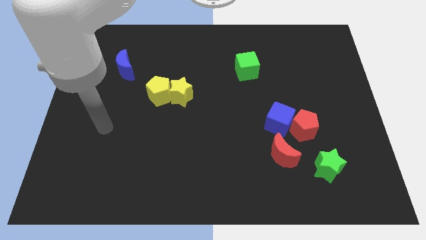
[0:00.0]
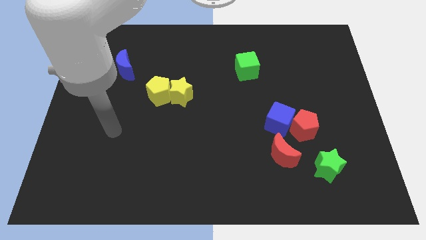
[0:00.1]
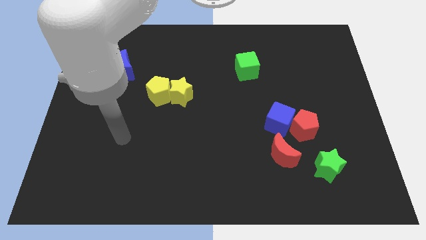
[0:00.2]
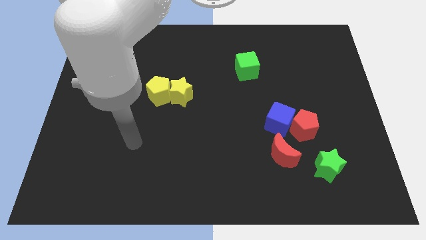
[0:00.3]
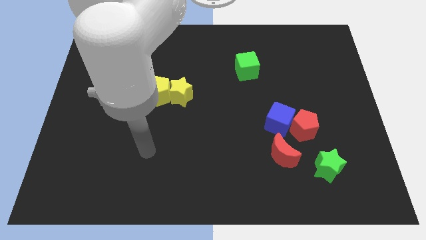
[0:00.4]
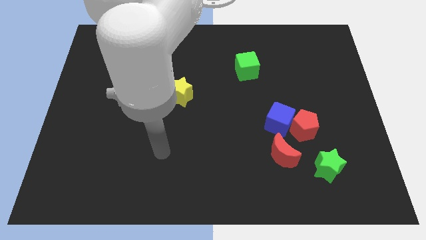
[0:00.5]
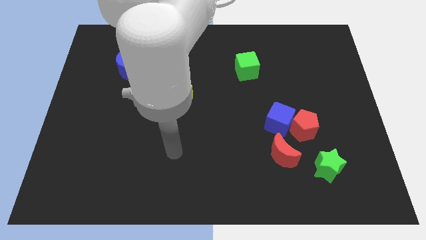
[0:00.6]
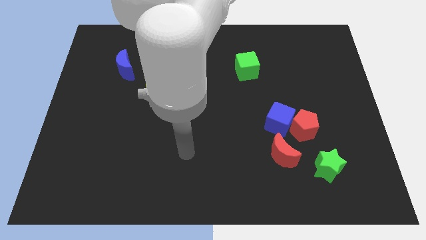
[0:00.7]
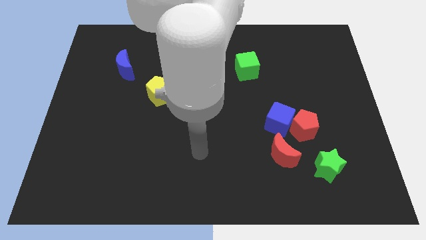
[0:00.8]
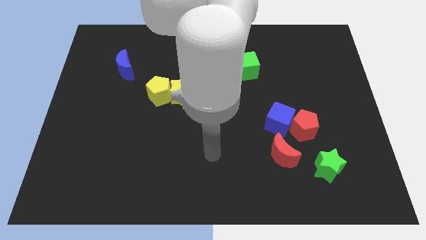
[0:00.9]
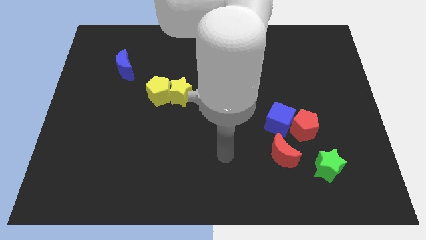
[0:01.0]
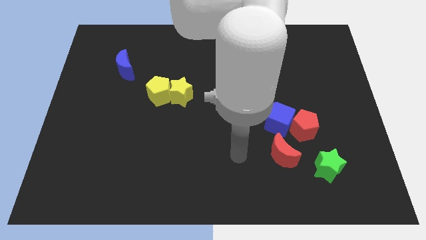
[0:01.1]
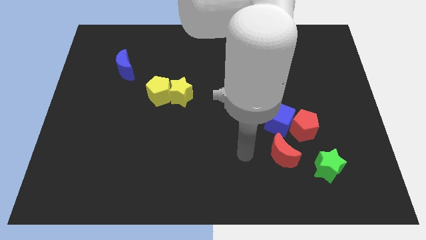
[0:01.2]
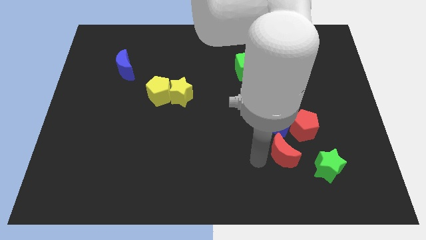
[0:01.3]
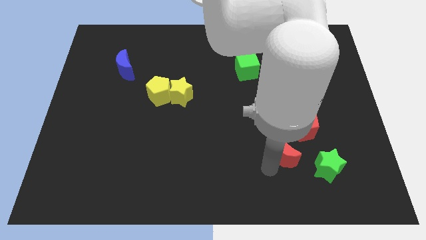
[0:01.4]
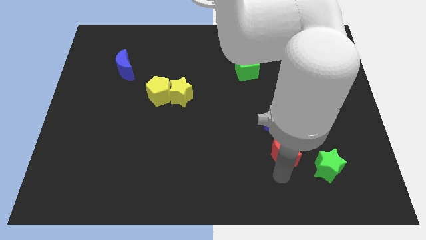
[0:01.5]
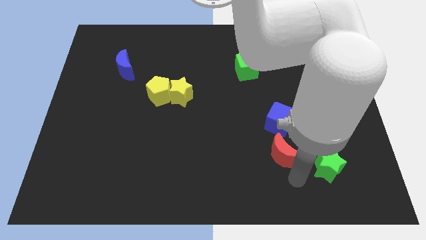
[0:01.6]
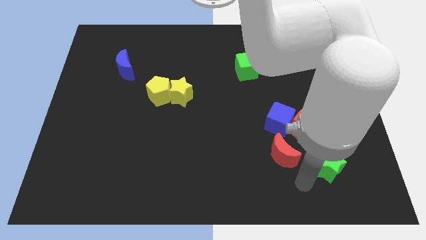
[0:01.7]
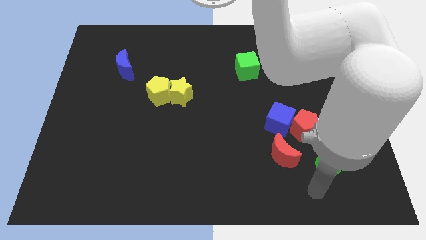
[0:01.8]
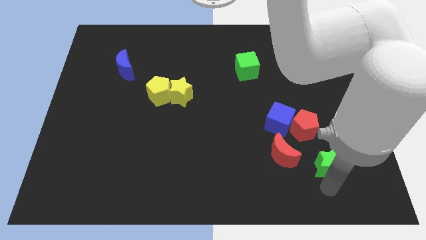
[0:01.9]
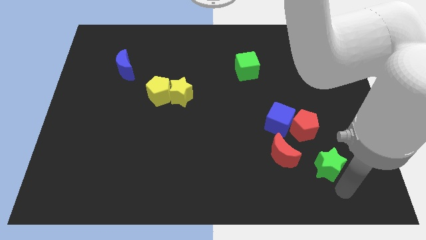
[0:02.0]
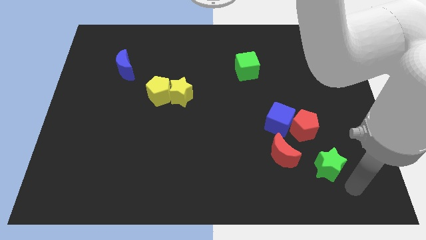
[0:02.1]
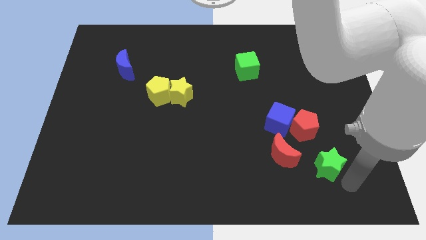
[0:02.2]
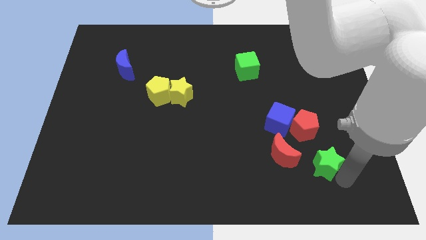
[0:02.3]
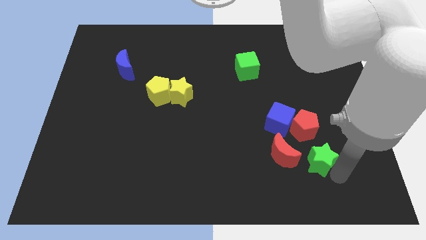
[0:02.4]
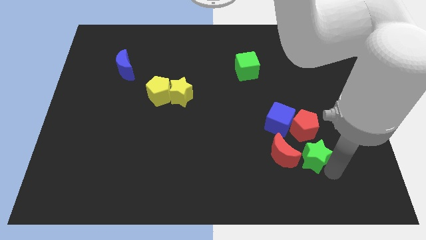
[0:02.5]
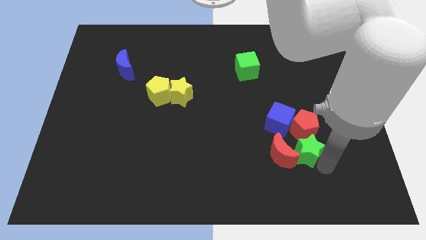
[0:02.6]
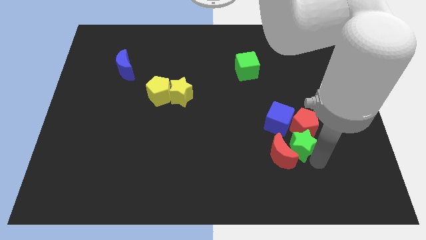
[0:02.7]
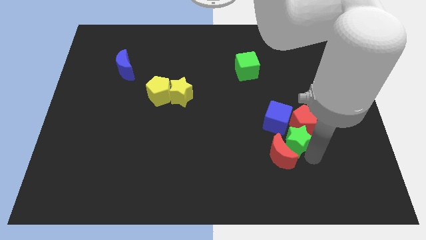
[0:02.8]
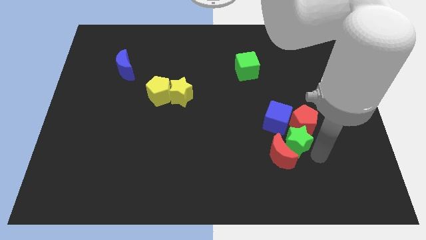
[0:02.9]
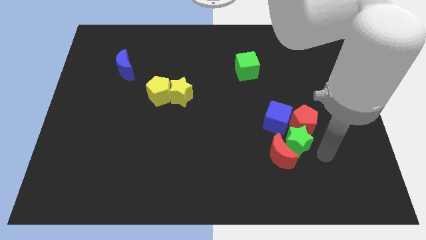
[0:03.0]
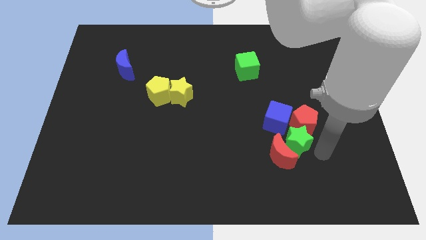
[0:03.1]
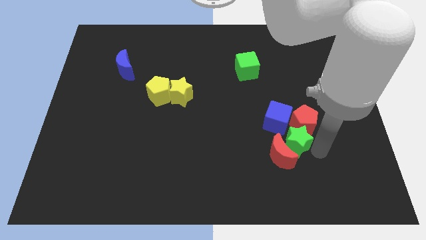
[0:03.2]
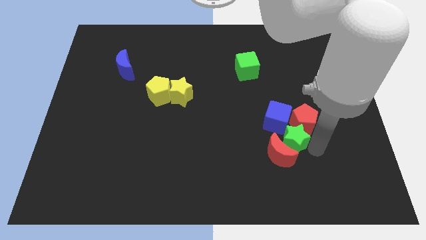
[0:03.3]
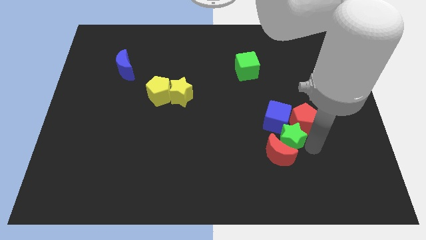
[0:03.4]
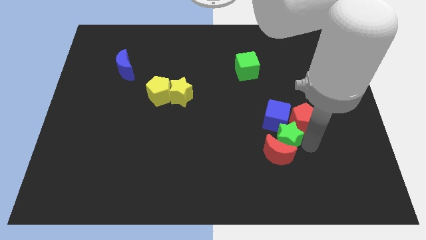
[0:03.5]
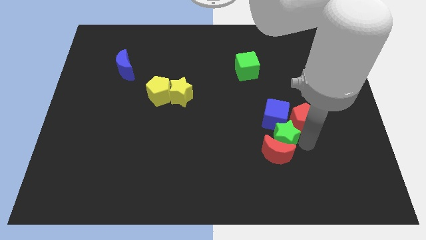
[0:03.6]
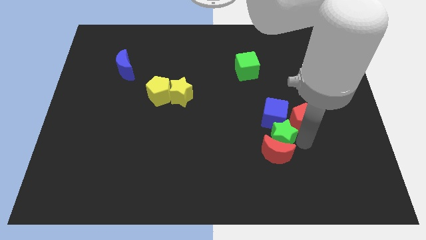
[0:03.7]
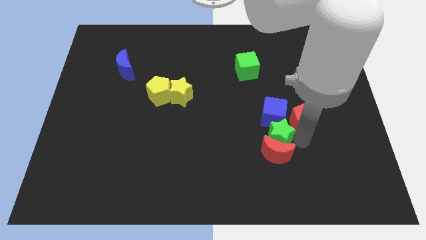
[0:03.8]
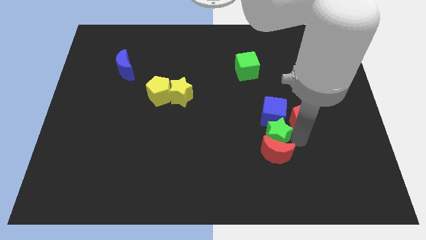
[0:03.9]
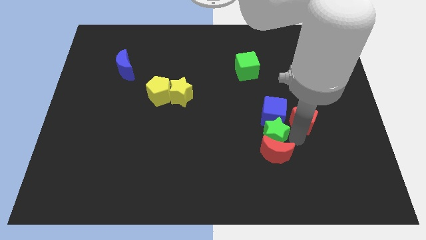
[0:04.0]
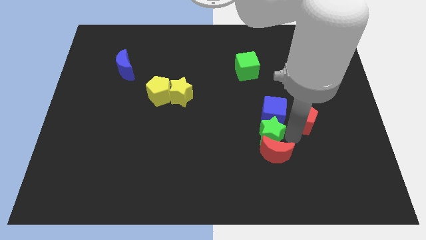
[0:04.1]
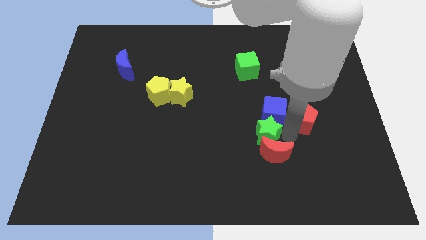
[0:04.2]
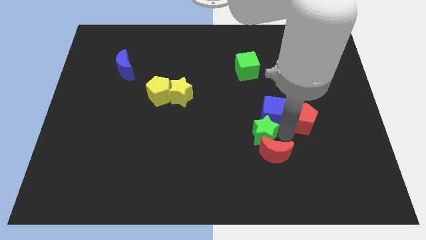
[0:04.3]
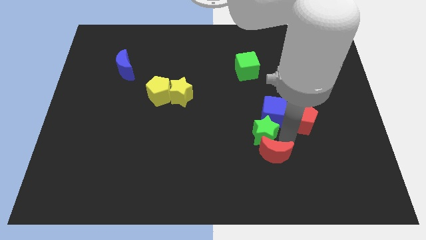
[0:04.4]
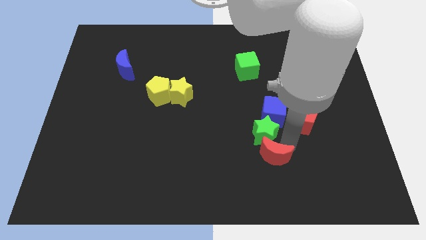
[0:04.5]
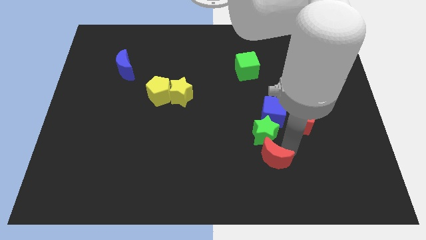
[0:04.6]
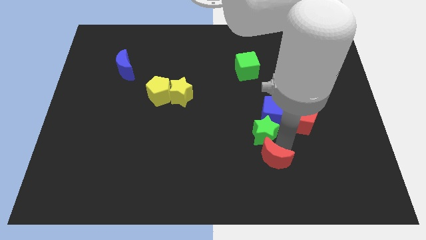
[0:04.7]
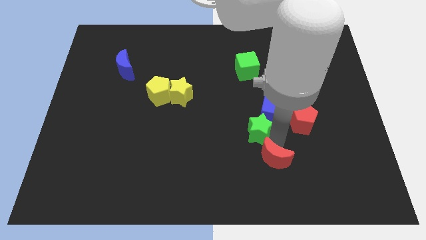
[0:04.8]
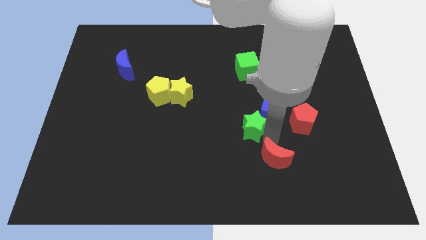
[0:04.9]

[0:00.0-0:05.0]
put the green star to the middle

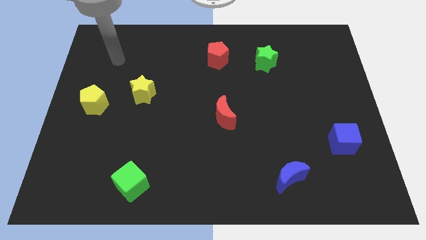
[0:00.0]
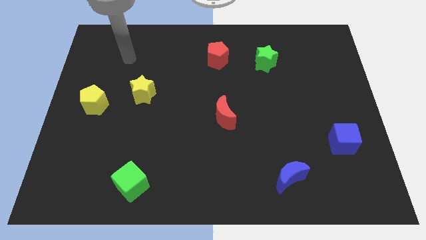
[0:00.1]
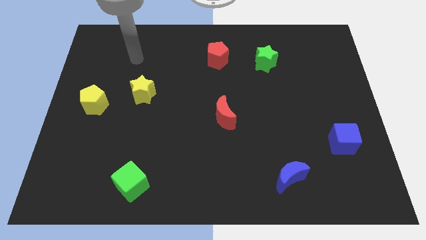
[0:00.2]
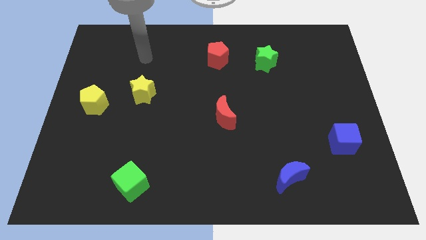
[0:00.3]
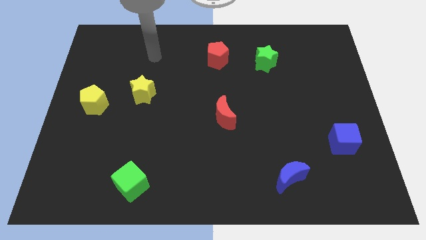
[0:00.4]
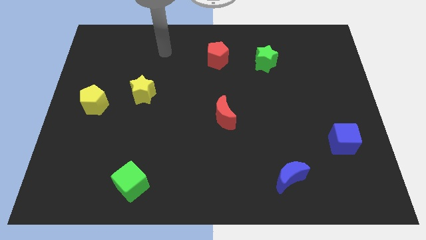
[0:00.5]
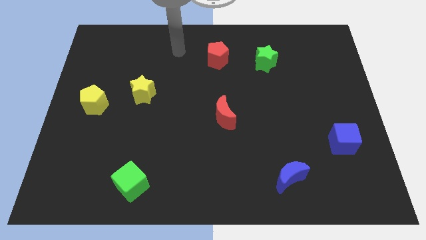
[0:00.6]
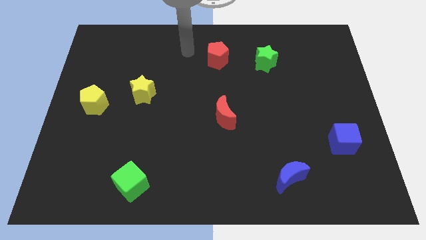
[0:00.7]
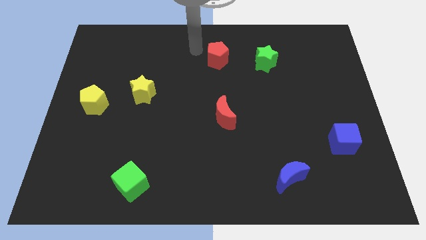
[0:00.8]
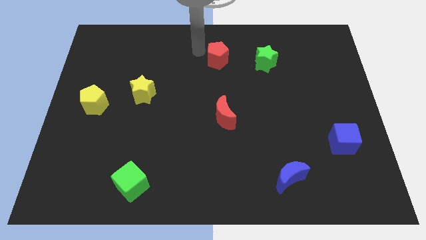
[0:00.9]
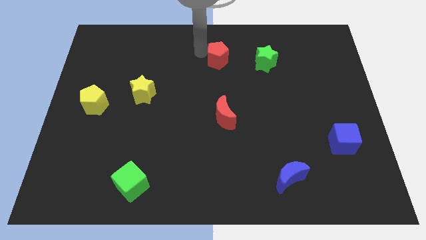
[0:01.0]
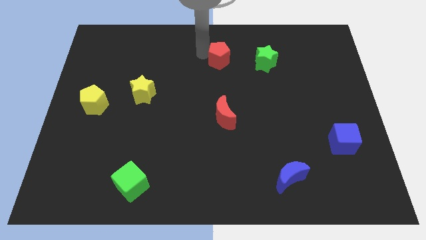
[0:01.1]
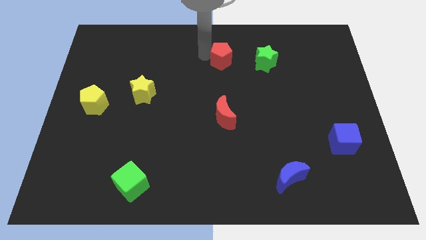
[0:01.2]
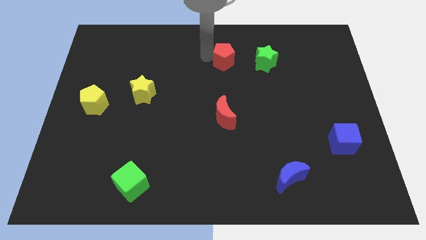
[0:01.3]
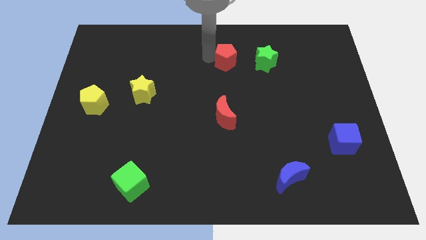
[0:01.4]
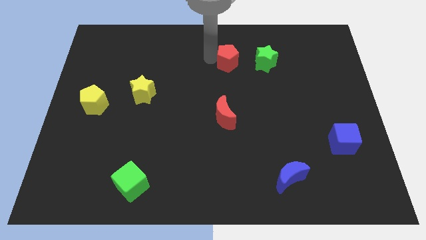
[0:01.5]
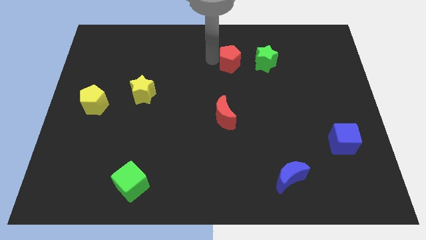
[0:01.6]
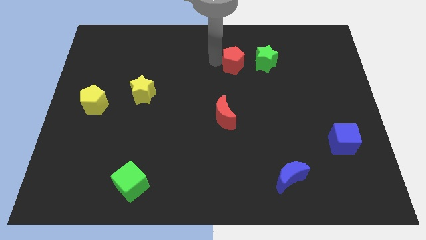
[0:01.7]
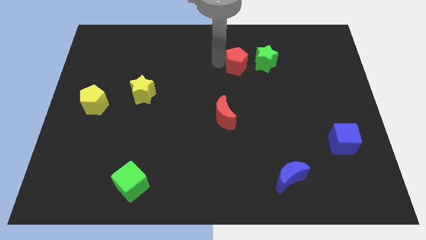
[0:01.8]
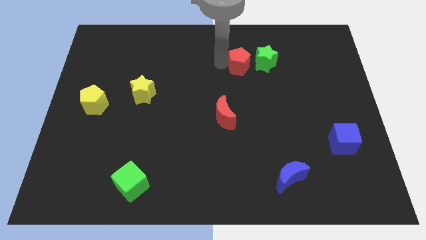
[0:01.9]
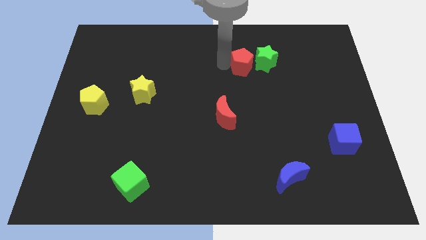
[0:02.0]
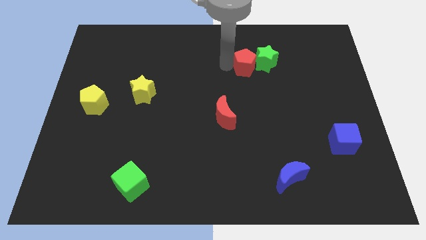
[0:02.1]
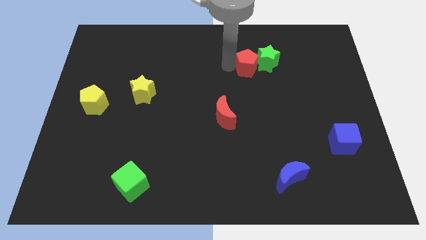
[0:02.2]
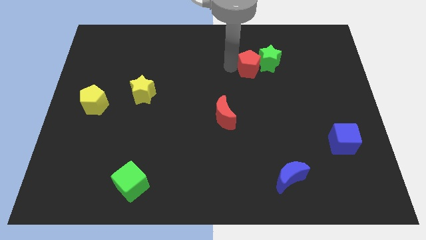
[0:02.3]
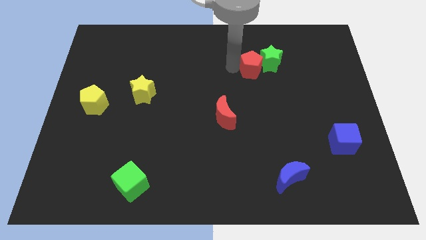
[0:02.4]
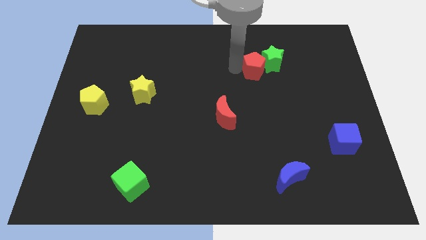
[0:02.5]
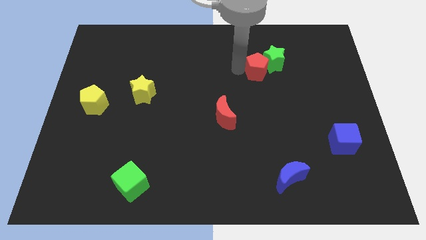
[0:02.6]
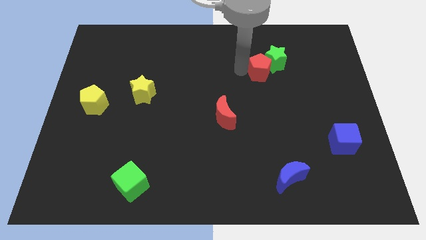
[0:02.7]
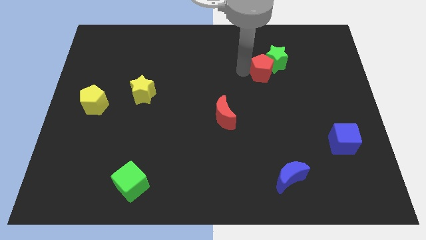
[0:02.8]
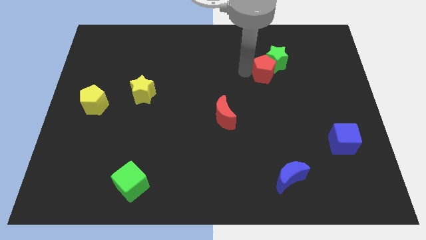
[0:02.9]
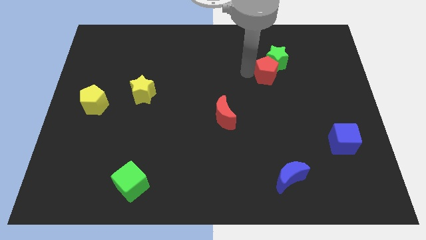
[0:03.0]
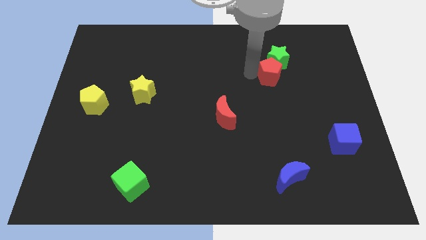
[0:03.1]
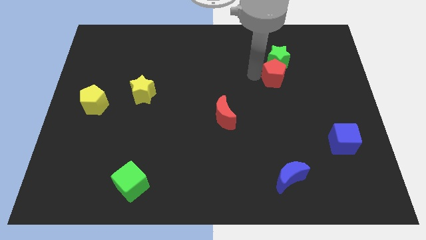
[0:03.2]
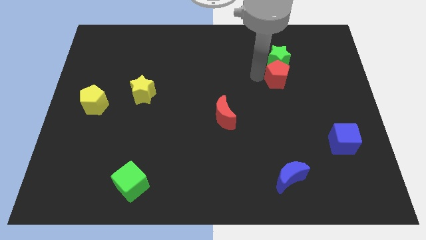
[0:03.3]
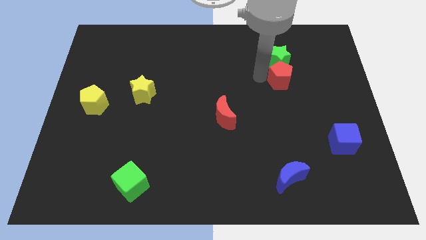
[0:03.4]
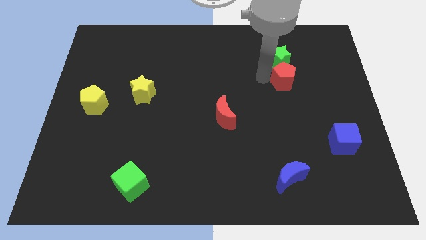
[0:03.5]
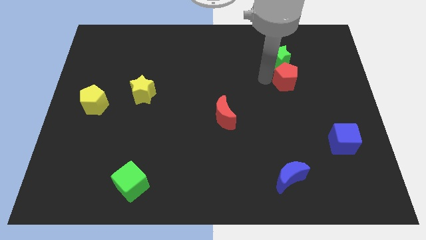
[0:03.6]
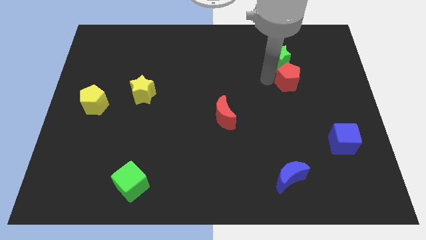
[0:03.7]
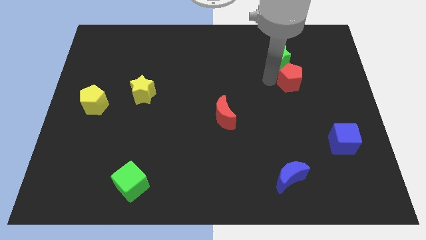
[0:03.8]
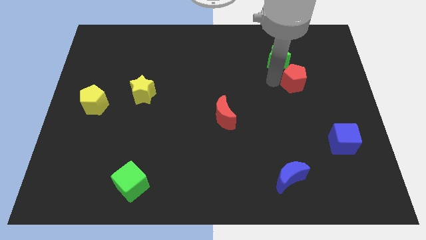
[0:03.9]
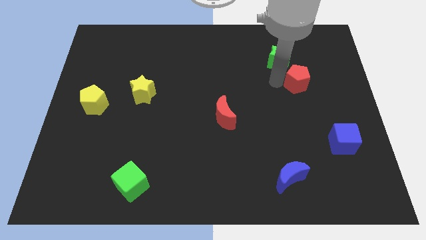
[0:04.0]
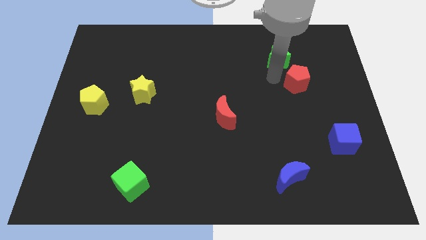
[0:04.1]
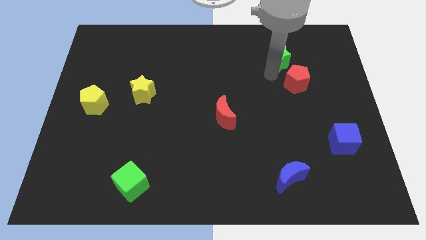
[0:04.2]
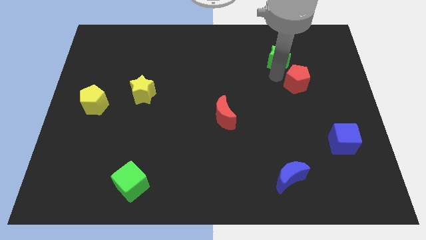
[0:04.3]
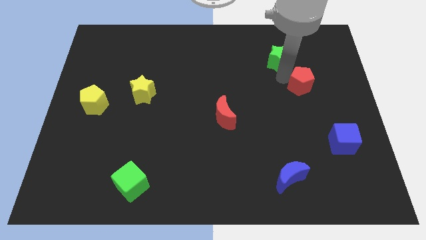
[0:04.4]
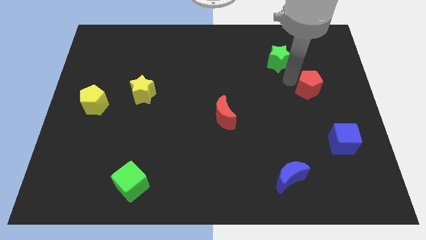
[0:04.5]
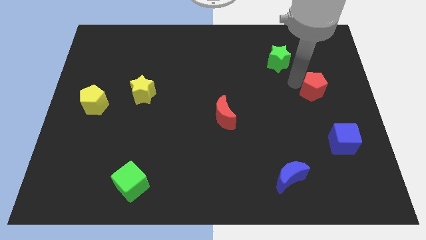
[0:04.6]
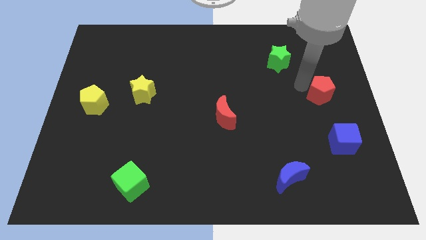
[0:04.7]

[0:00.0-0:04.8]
put the red pentagon to the right side
